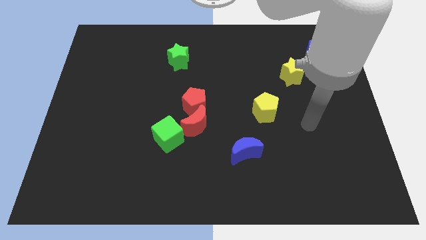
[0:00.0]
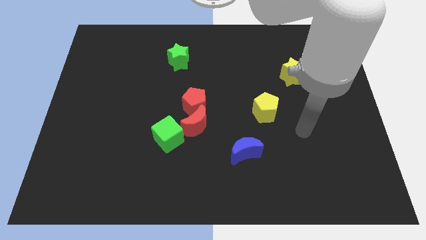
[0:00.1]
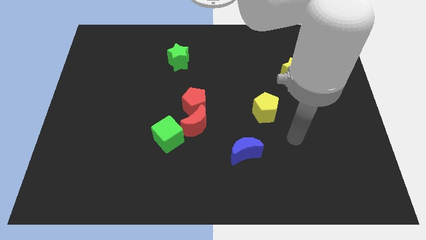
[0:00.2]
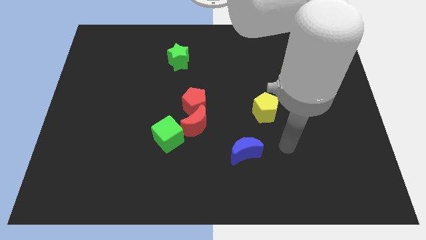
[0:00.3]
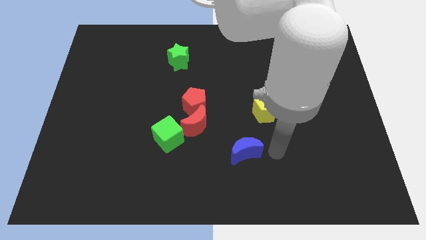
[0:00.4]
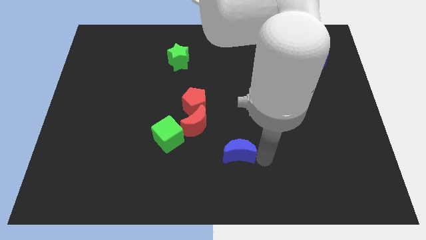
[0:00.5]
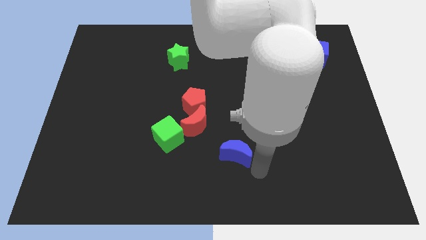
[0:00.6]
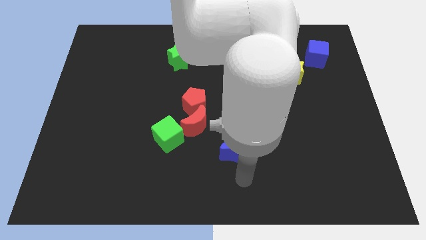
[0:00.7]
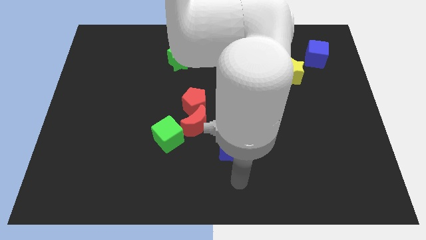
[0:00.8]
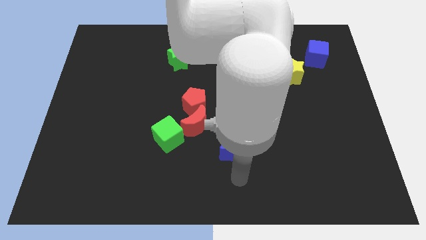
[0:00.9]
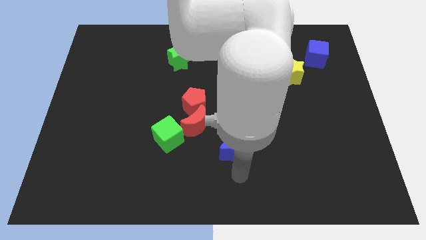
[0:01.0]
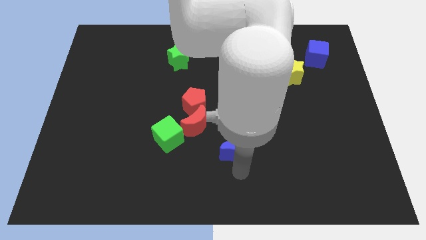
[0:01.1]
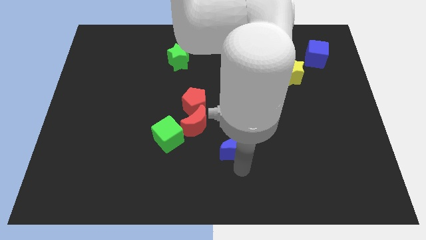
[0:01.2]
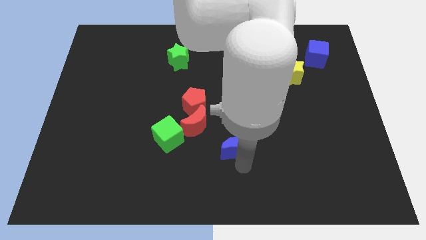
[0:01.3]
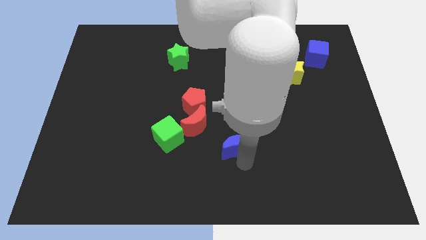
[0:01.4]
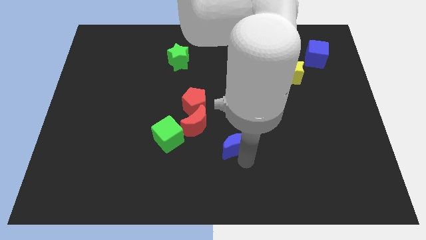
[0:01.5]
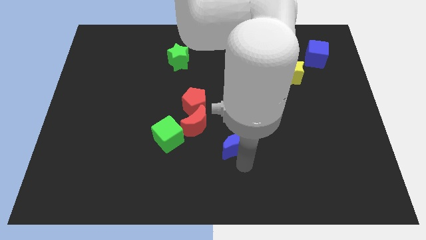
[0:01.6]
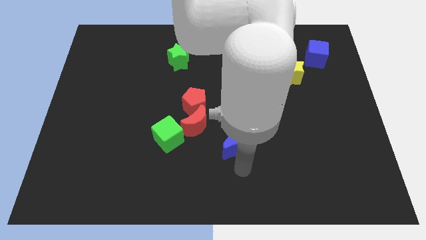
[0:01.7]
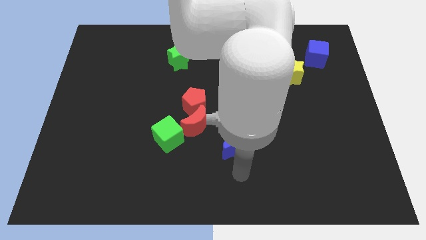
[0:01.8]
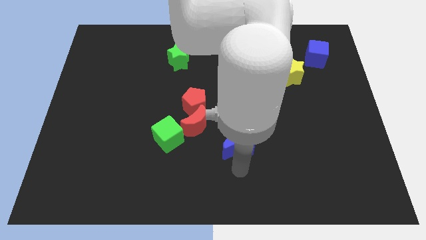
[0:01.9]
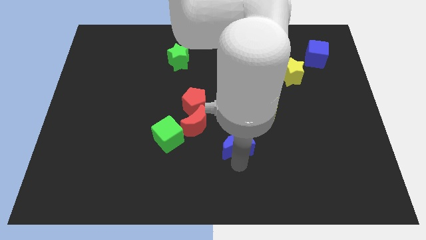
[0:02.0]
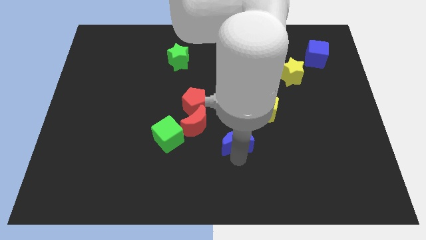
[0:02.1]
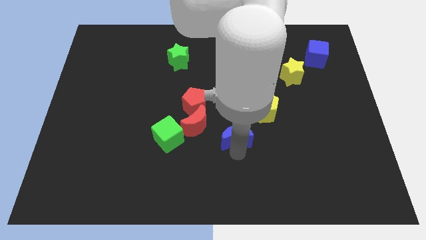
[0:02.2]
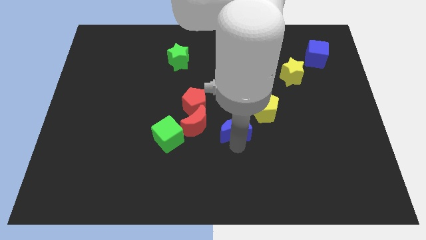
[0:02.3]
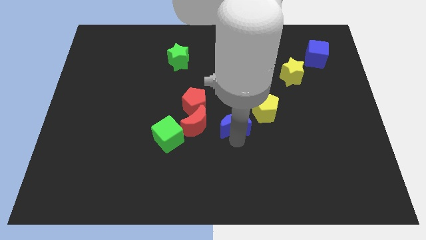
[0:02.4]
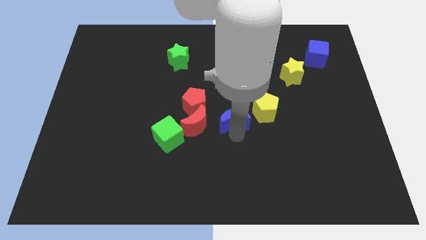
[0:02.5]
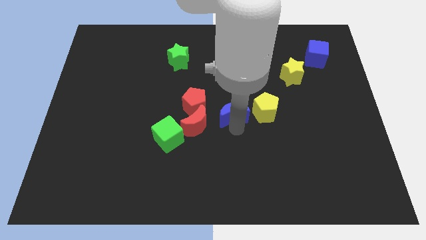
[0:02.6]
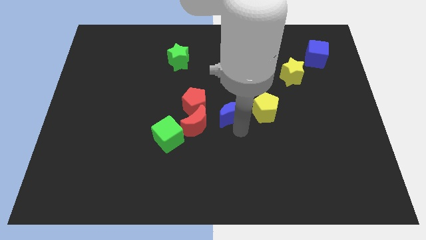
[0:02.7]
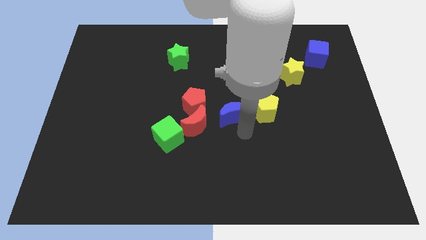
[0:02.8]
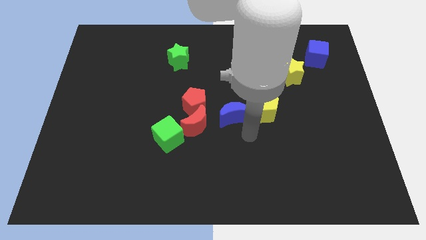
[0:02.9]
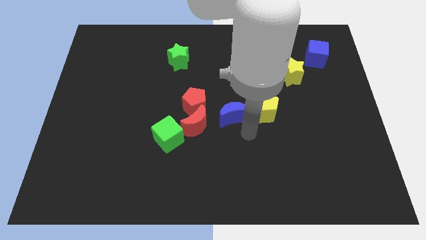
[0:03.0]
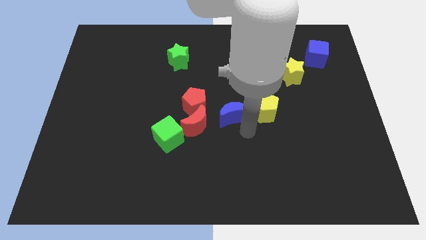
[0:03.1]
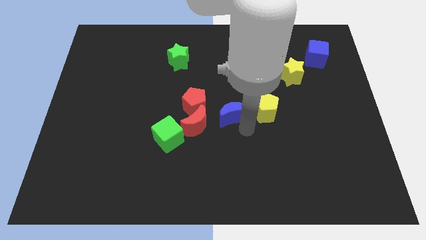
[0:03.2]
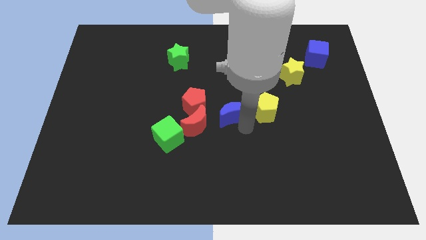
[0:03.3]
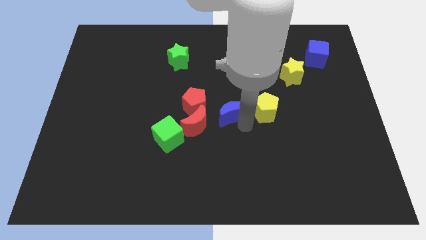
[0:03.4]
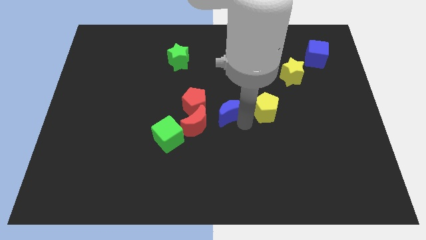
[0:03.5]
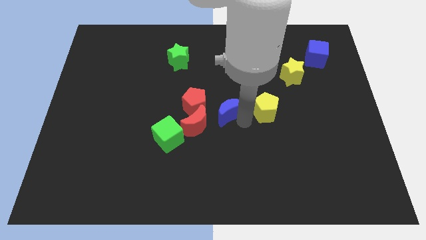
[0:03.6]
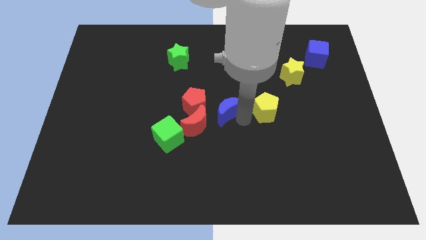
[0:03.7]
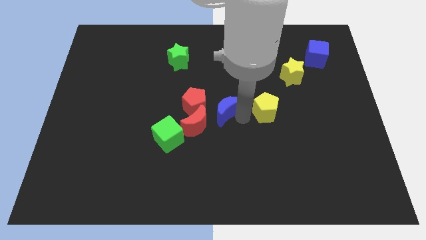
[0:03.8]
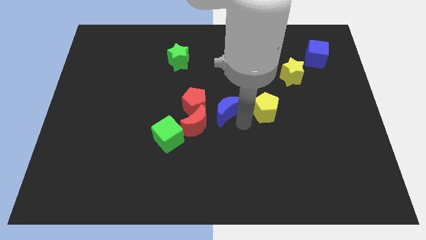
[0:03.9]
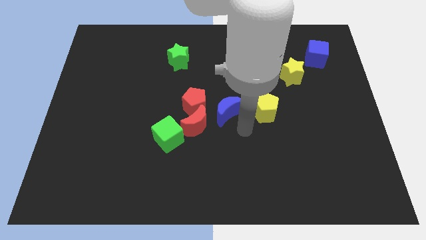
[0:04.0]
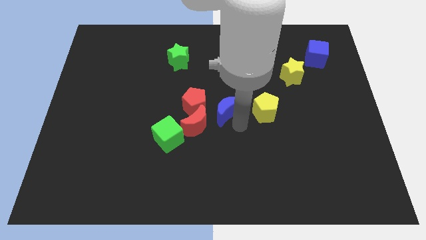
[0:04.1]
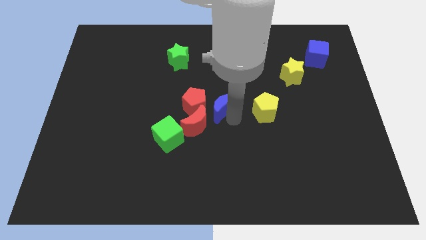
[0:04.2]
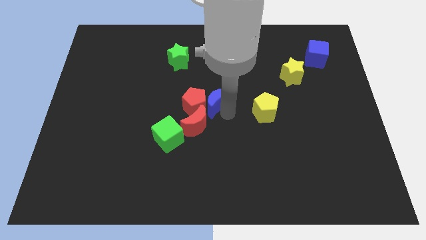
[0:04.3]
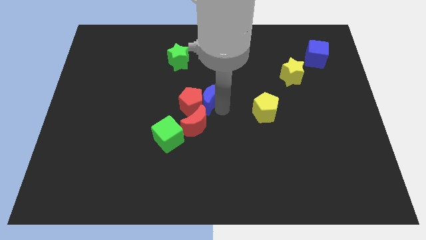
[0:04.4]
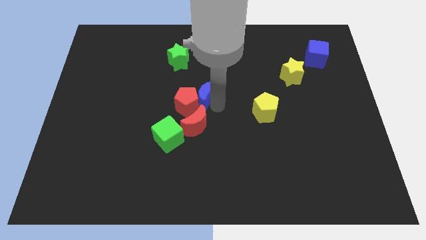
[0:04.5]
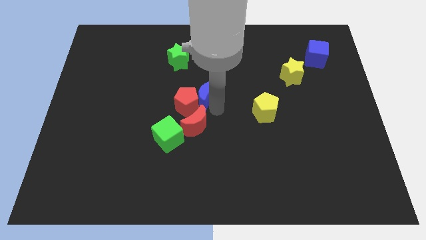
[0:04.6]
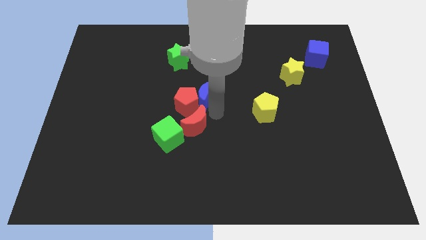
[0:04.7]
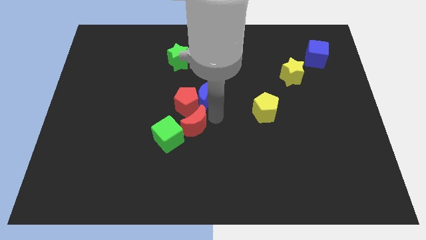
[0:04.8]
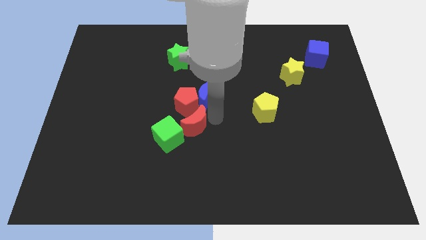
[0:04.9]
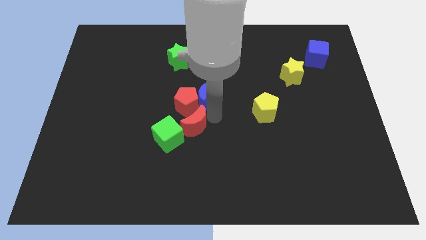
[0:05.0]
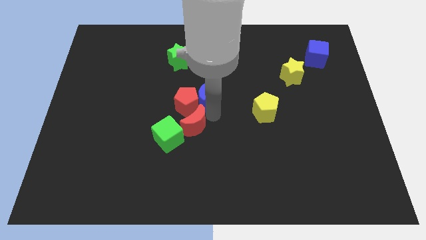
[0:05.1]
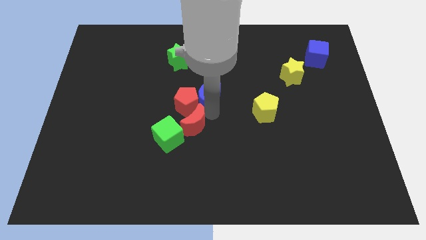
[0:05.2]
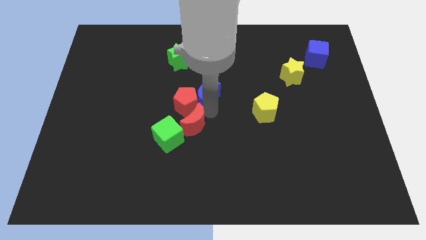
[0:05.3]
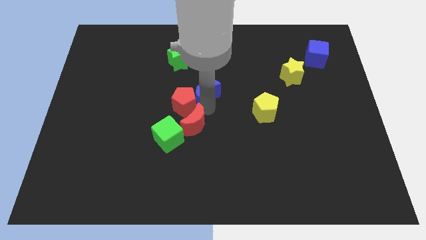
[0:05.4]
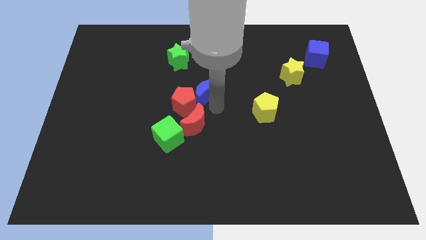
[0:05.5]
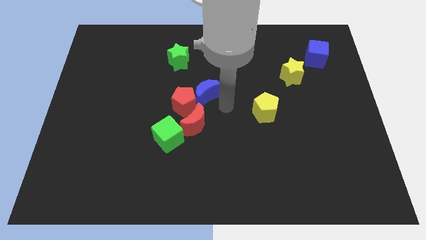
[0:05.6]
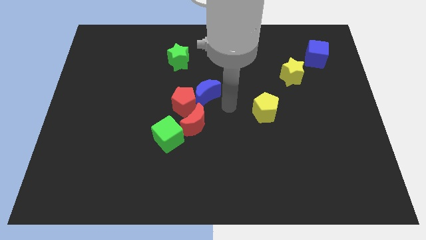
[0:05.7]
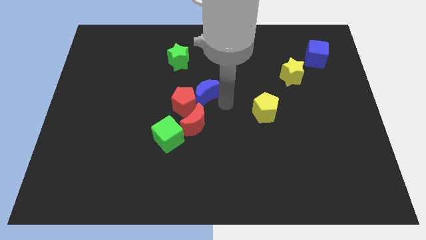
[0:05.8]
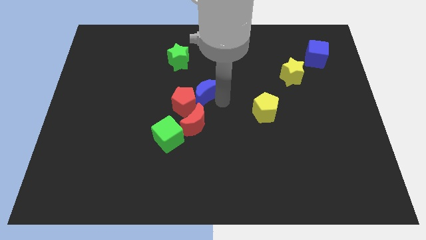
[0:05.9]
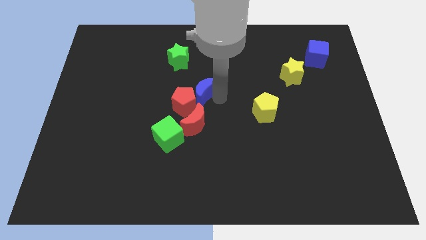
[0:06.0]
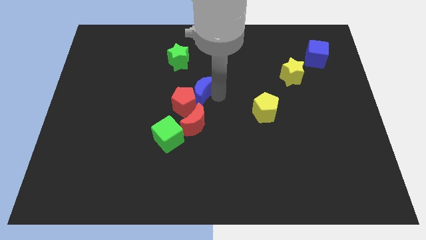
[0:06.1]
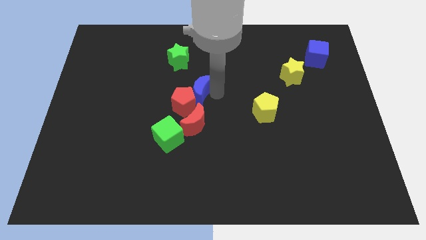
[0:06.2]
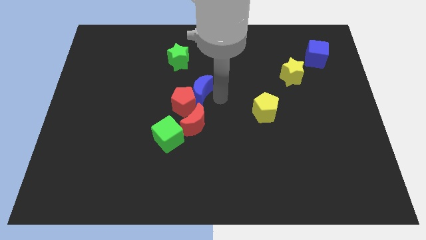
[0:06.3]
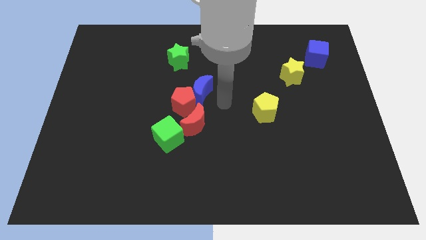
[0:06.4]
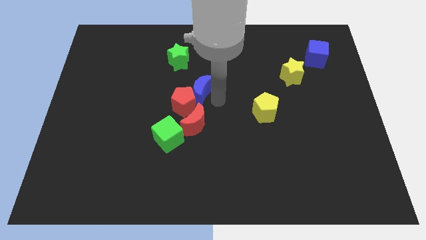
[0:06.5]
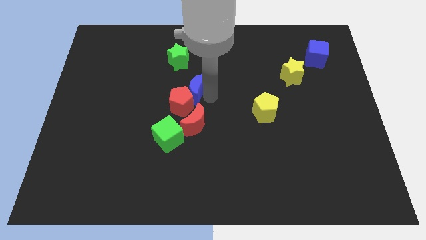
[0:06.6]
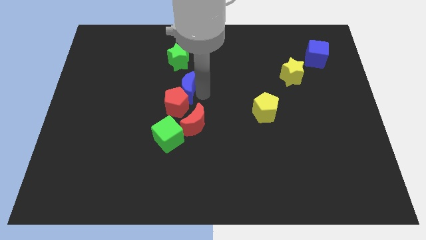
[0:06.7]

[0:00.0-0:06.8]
slide the blue moon upwards and left

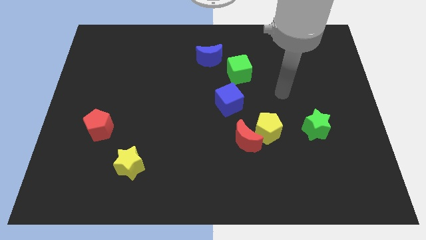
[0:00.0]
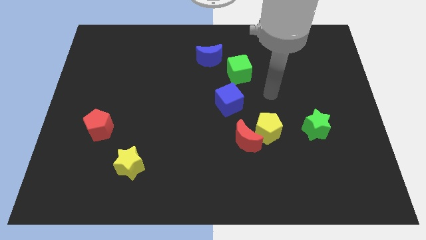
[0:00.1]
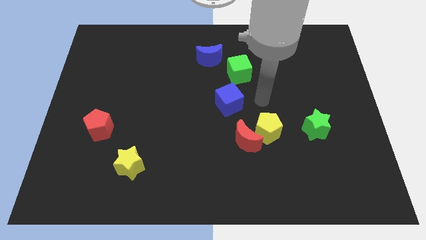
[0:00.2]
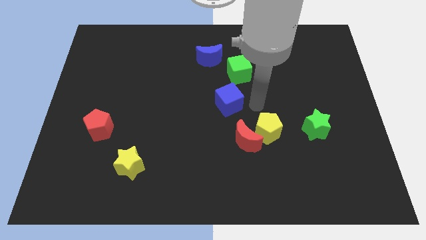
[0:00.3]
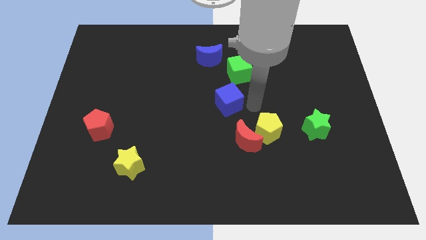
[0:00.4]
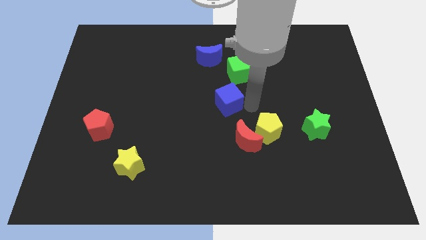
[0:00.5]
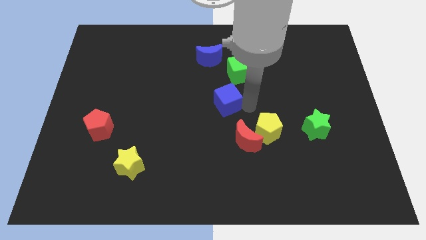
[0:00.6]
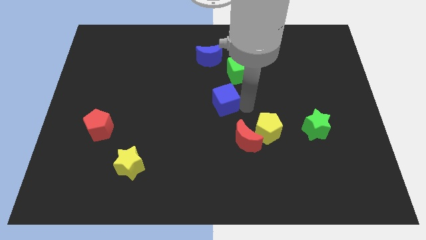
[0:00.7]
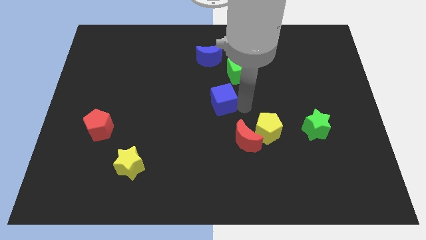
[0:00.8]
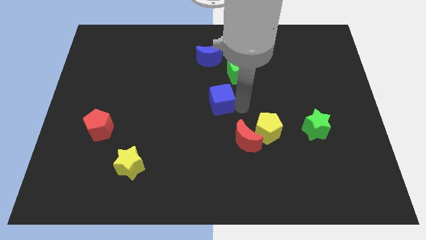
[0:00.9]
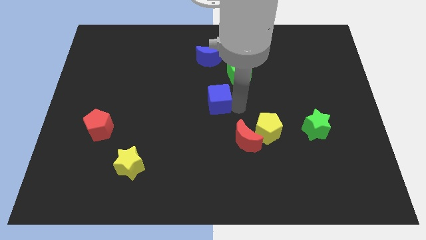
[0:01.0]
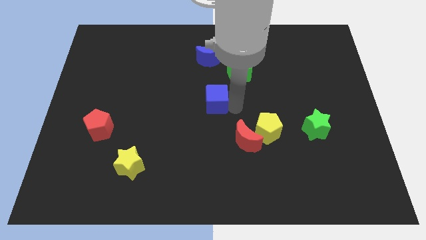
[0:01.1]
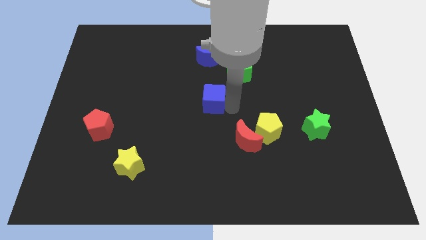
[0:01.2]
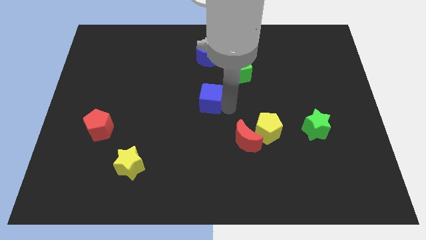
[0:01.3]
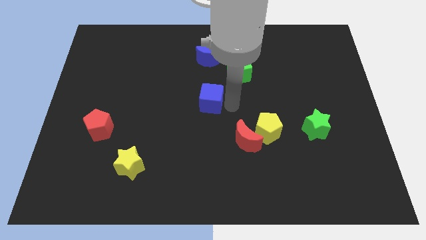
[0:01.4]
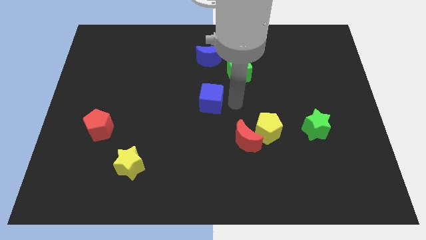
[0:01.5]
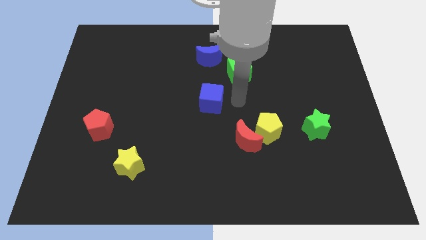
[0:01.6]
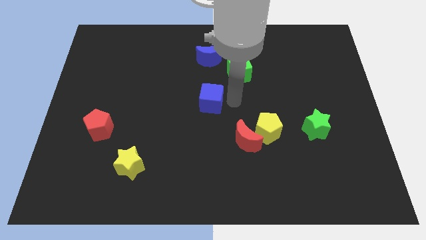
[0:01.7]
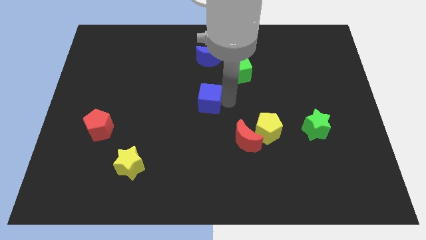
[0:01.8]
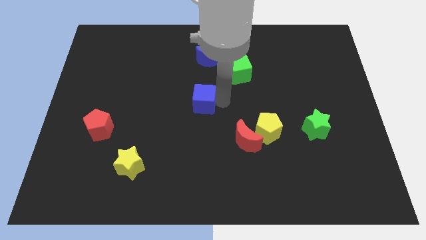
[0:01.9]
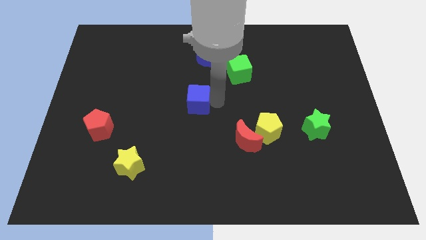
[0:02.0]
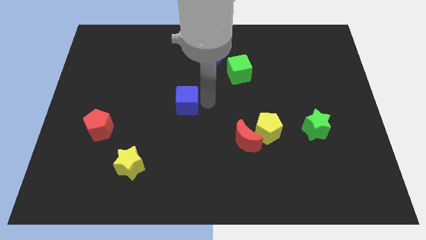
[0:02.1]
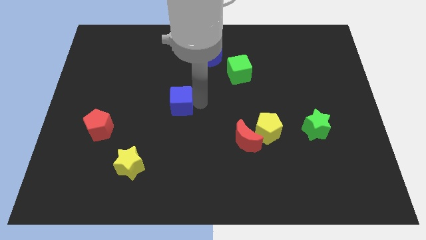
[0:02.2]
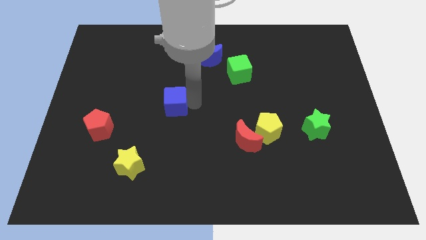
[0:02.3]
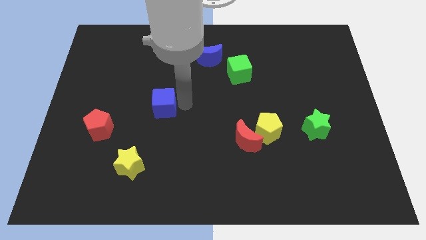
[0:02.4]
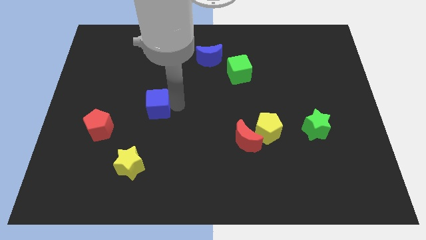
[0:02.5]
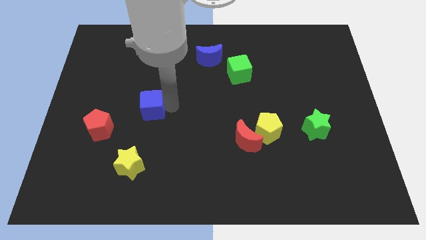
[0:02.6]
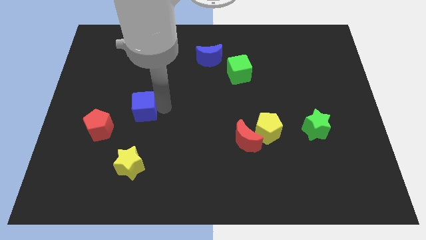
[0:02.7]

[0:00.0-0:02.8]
move the blue cube to the left
